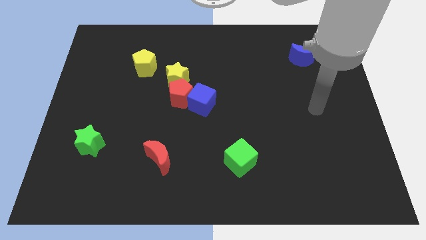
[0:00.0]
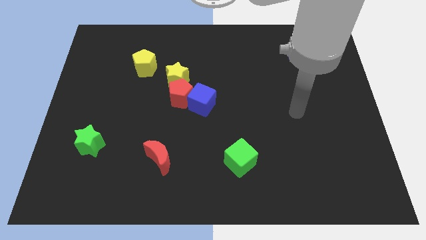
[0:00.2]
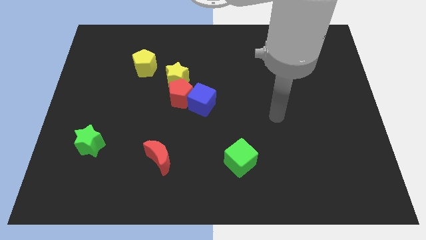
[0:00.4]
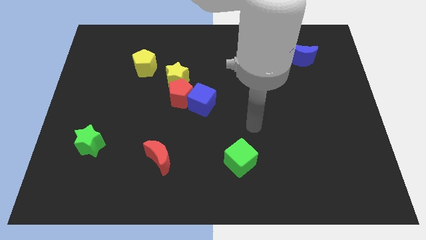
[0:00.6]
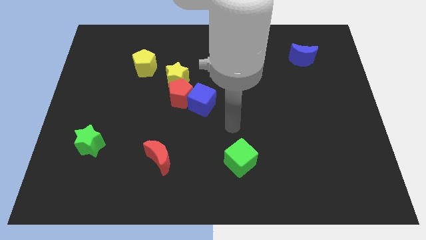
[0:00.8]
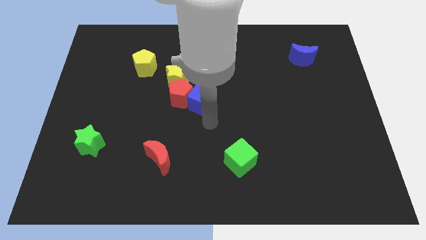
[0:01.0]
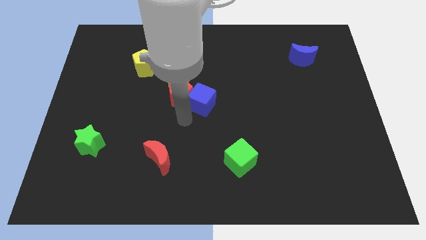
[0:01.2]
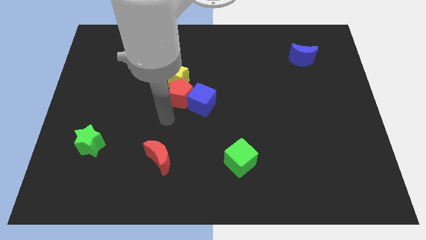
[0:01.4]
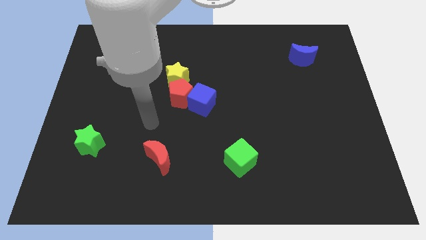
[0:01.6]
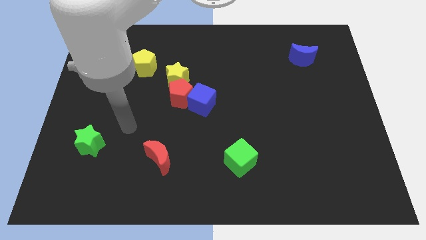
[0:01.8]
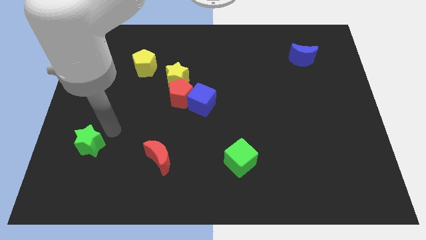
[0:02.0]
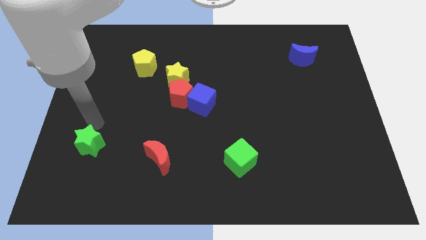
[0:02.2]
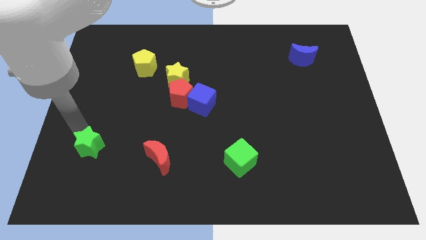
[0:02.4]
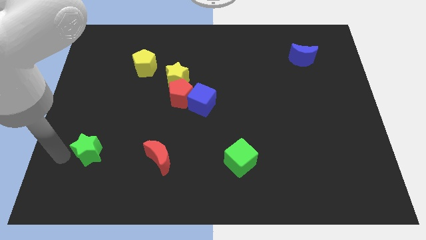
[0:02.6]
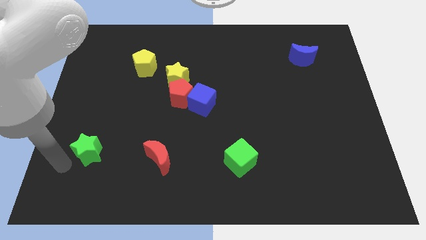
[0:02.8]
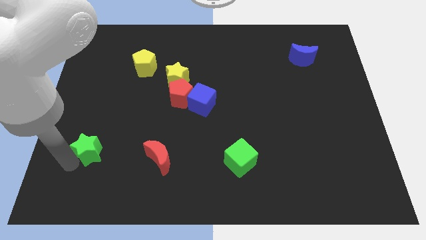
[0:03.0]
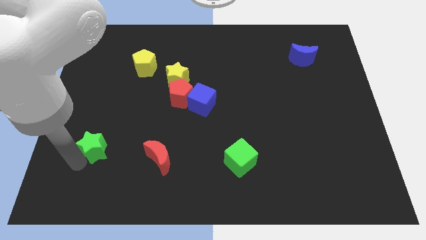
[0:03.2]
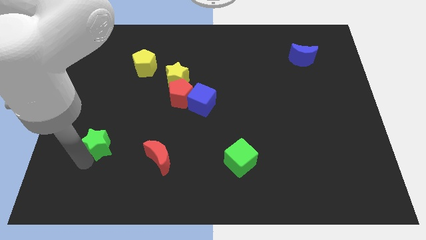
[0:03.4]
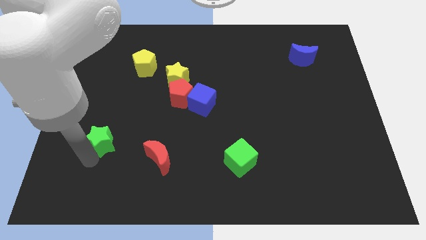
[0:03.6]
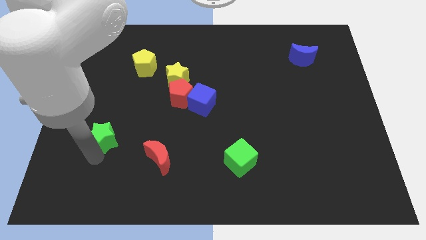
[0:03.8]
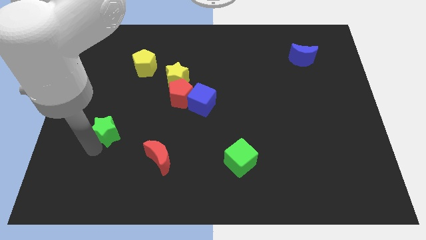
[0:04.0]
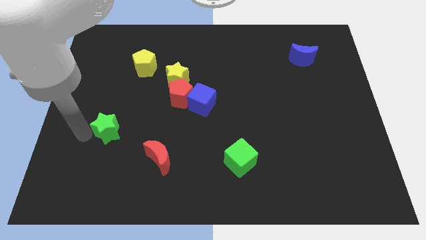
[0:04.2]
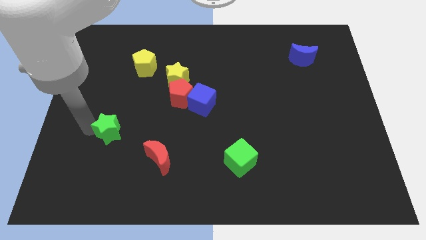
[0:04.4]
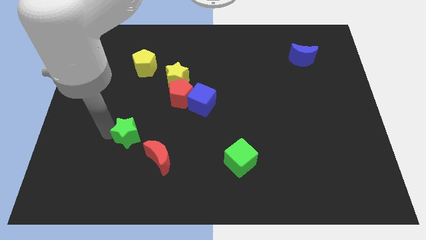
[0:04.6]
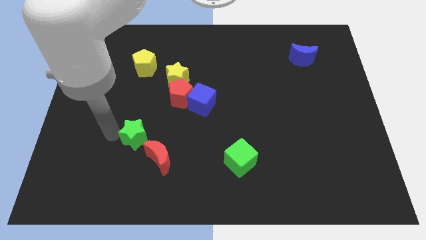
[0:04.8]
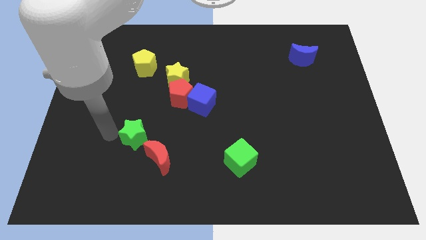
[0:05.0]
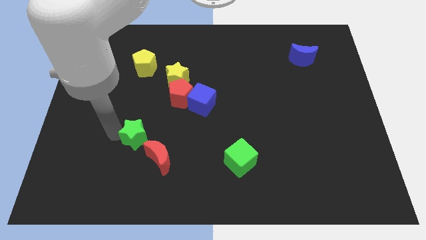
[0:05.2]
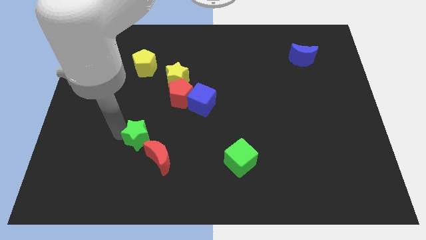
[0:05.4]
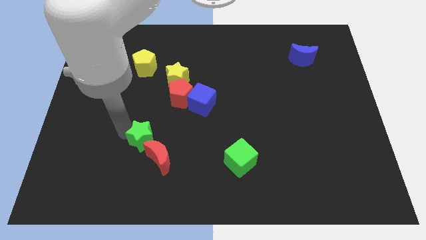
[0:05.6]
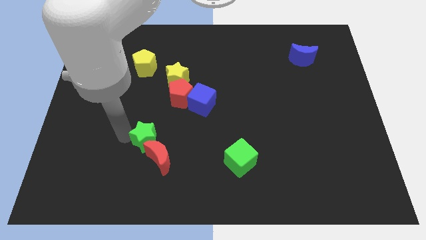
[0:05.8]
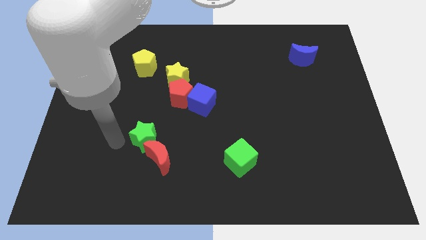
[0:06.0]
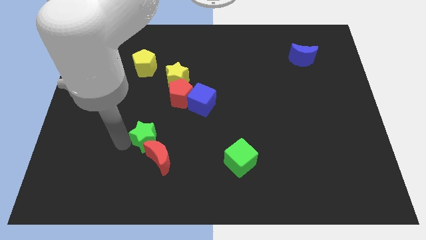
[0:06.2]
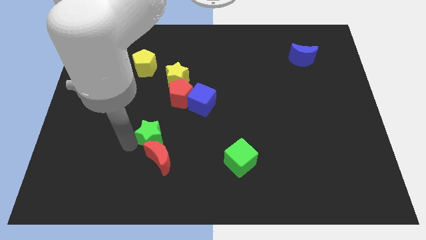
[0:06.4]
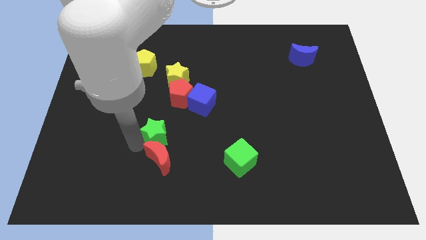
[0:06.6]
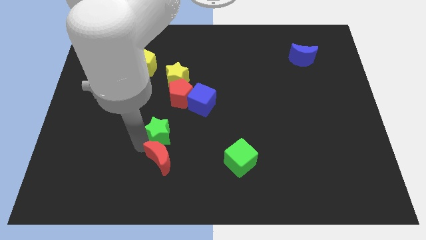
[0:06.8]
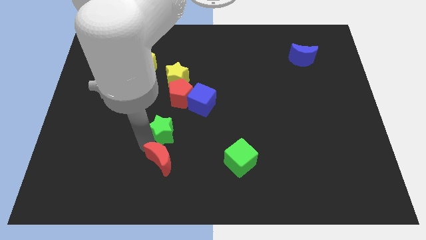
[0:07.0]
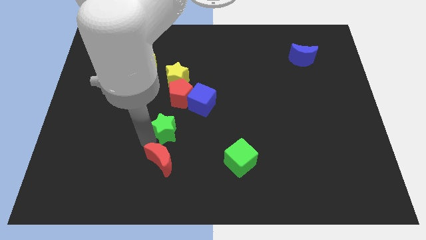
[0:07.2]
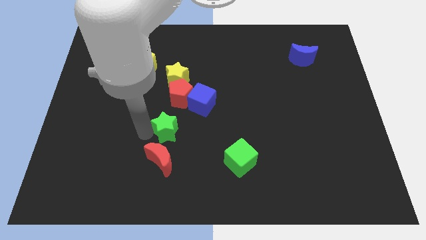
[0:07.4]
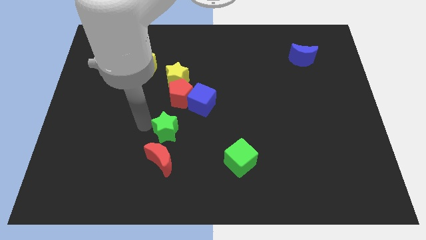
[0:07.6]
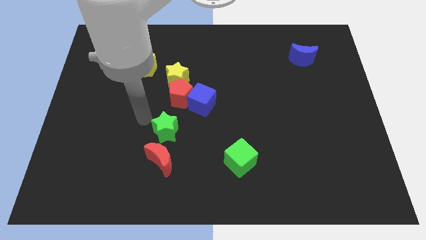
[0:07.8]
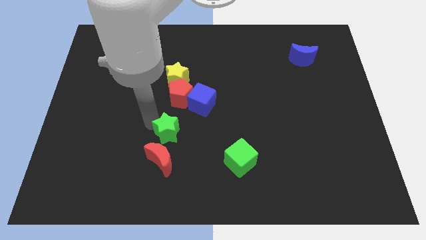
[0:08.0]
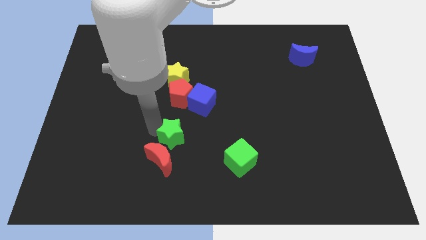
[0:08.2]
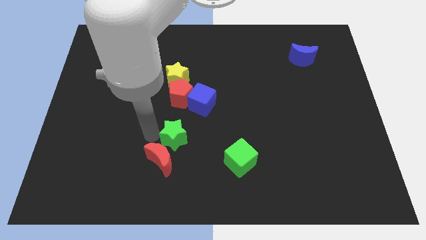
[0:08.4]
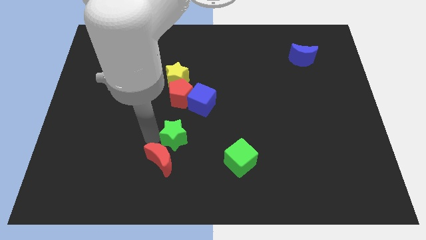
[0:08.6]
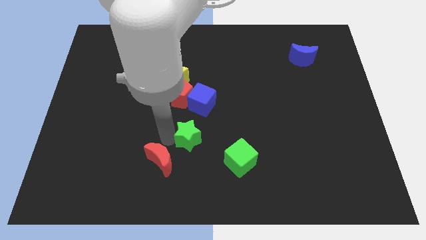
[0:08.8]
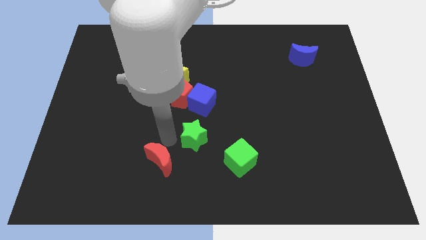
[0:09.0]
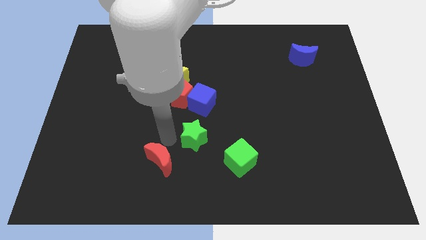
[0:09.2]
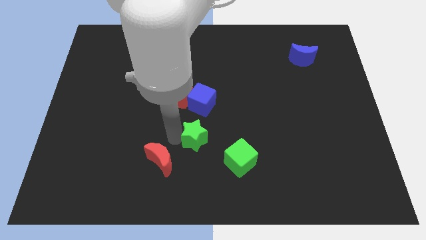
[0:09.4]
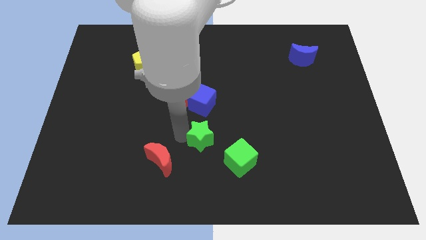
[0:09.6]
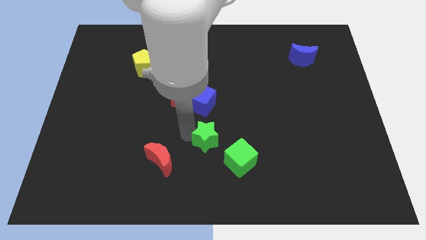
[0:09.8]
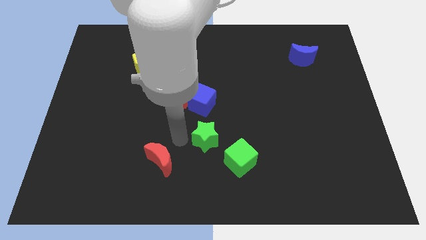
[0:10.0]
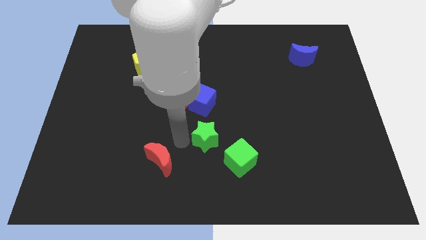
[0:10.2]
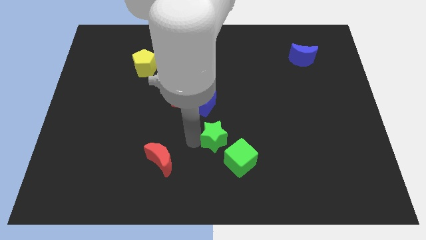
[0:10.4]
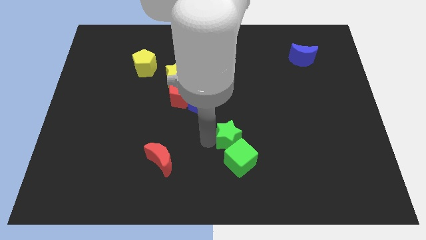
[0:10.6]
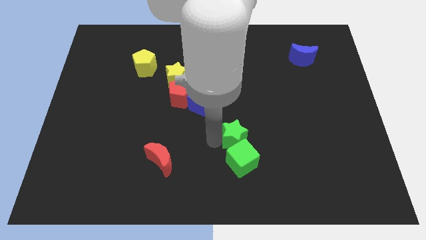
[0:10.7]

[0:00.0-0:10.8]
move the green star diagonally up and to the right of the green cube

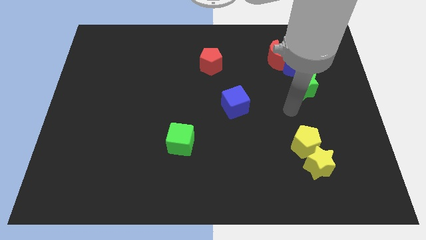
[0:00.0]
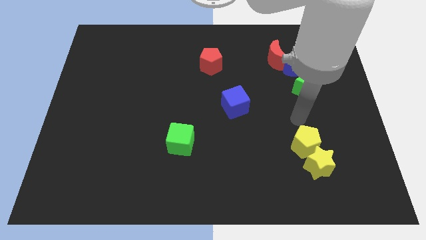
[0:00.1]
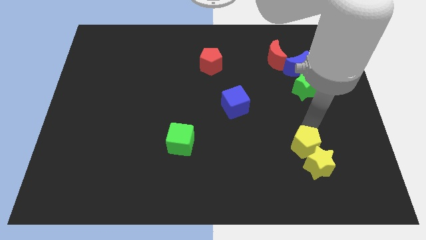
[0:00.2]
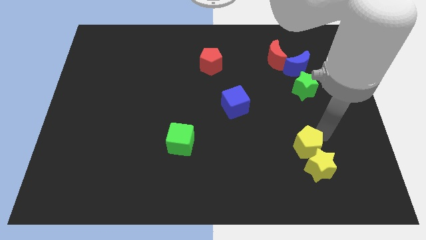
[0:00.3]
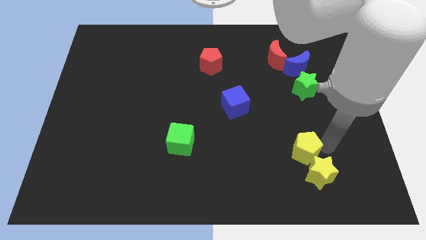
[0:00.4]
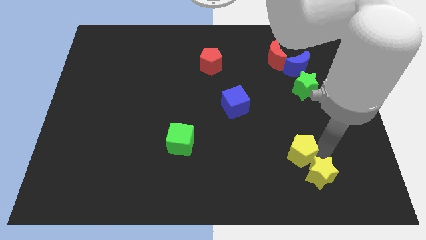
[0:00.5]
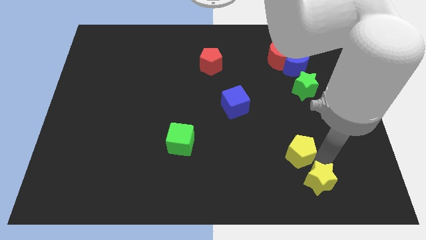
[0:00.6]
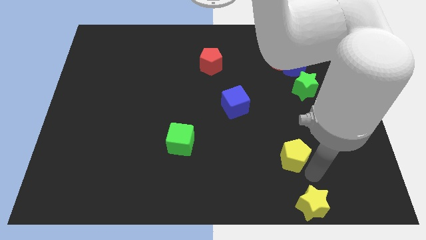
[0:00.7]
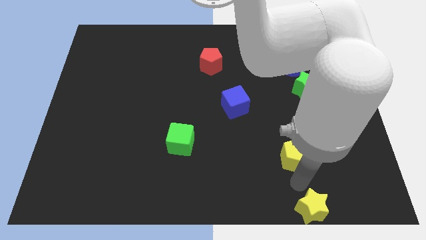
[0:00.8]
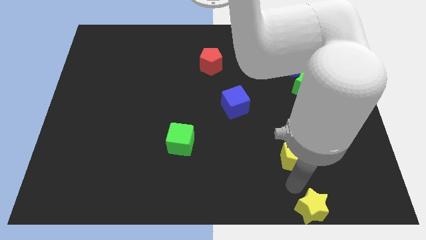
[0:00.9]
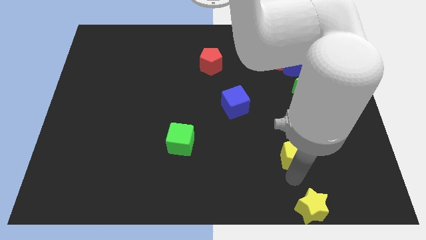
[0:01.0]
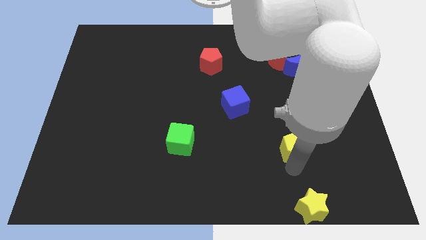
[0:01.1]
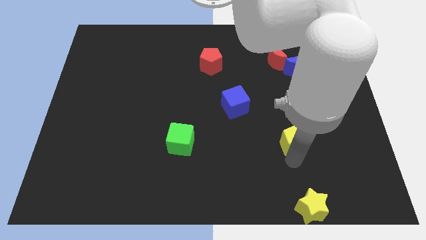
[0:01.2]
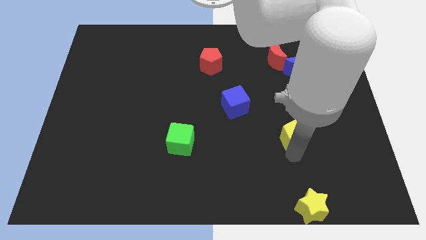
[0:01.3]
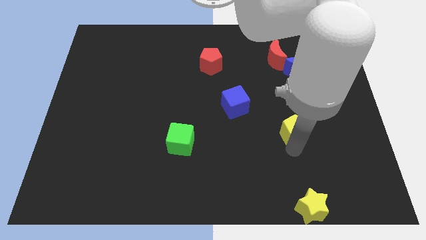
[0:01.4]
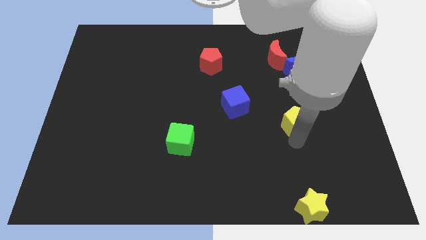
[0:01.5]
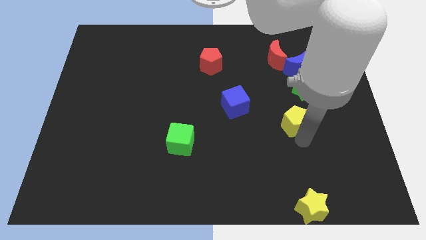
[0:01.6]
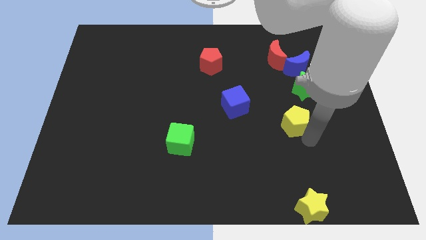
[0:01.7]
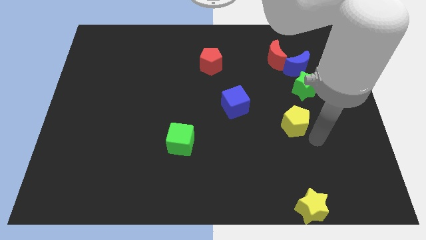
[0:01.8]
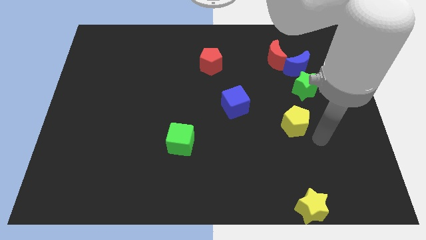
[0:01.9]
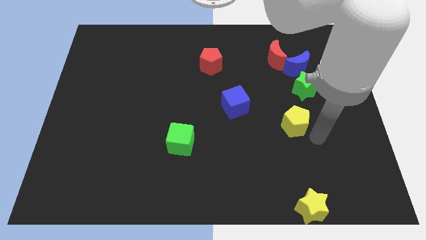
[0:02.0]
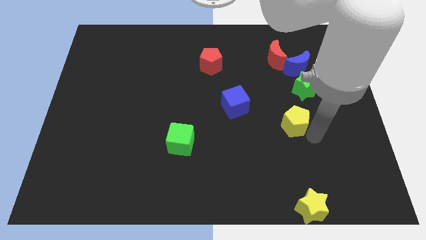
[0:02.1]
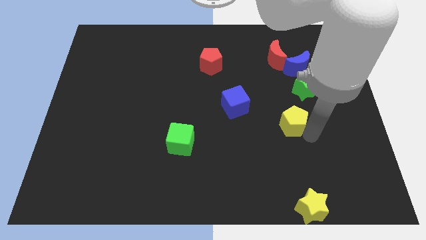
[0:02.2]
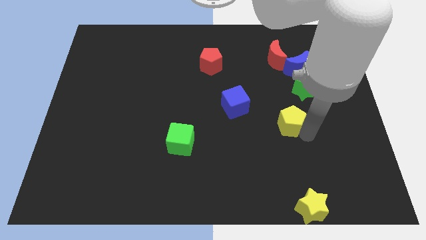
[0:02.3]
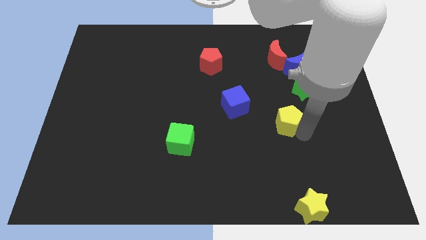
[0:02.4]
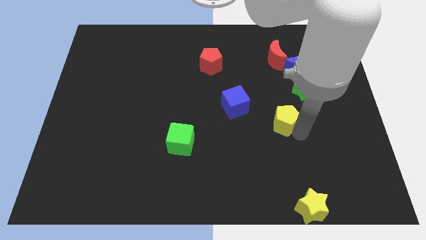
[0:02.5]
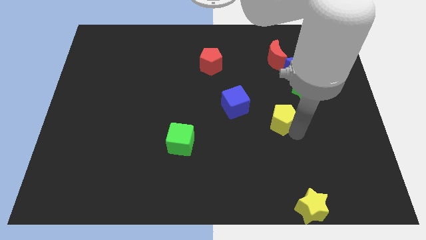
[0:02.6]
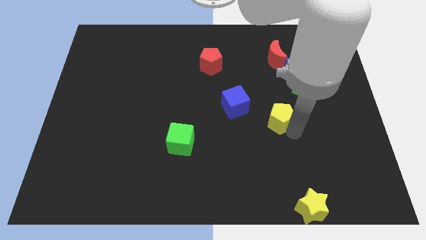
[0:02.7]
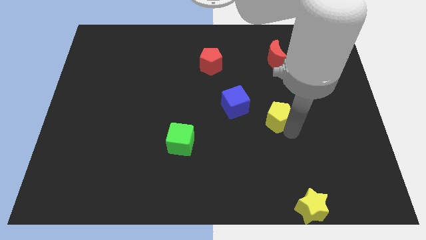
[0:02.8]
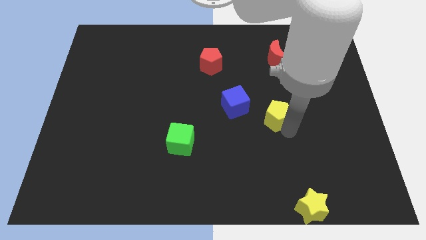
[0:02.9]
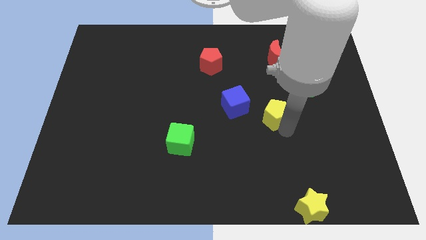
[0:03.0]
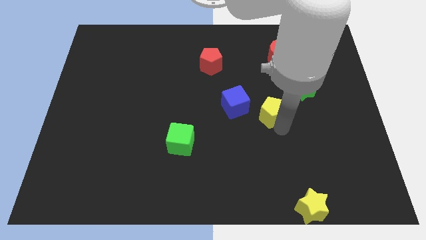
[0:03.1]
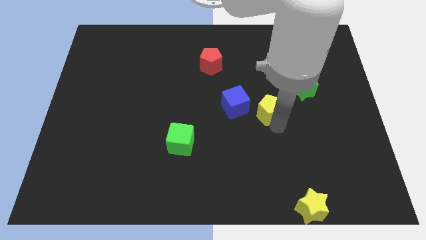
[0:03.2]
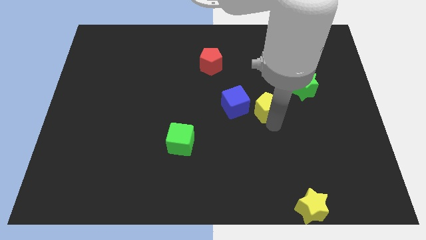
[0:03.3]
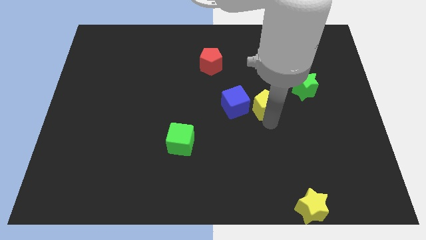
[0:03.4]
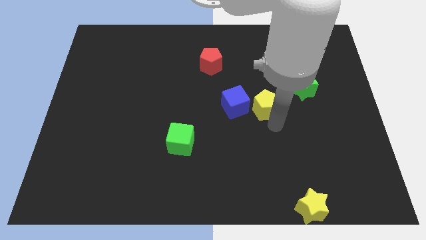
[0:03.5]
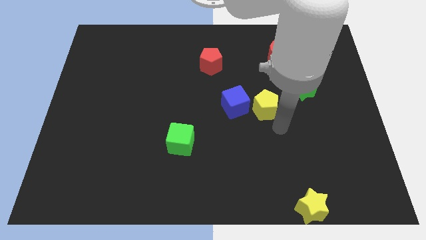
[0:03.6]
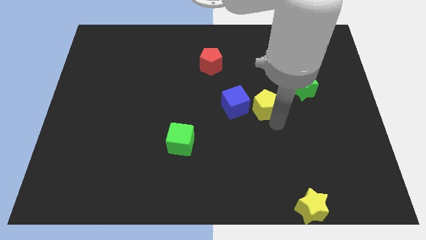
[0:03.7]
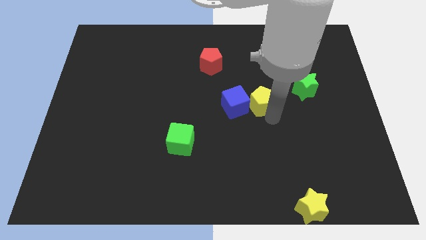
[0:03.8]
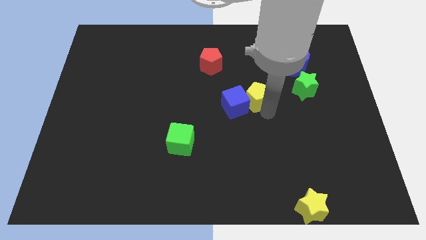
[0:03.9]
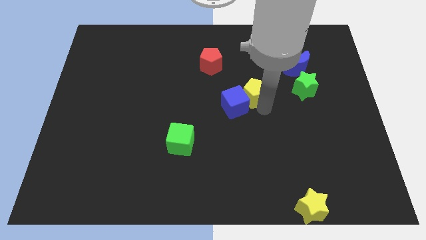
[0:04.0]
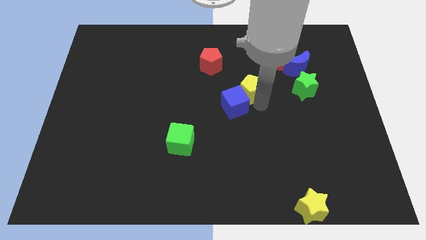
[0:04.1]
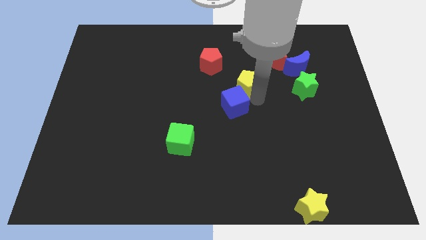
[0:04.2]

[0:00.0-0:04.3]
move the yellow pentagon diagonally down and to the right of the red pentagon
